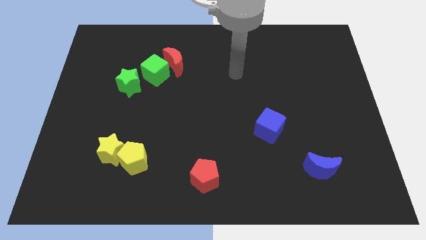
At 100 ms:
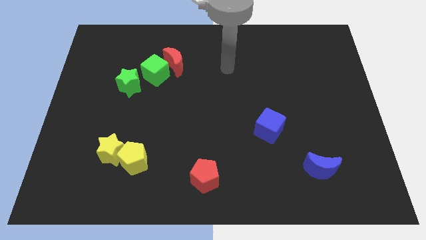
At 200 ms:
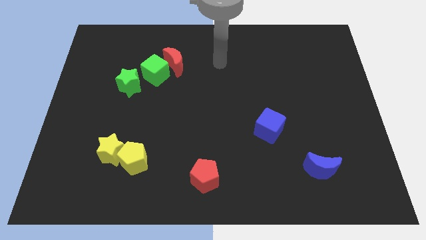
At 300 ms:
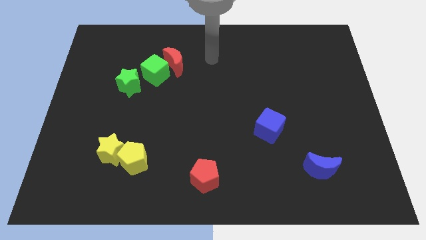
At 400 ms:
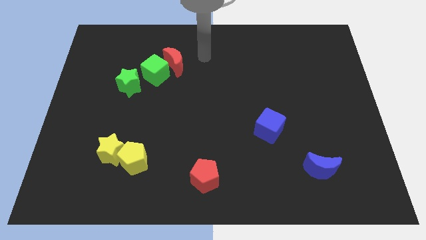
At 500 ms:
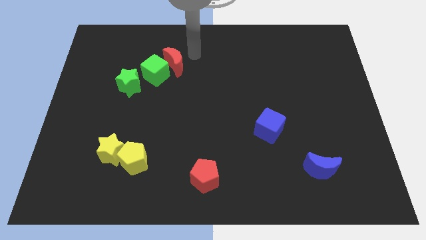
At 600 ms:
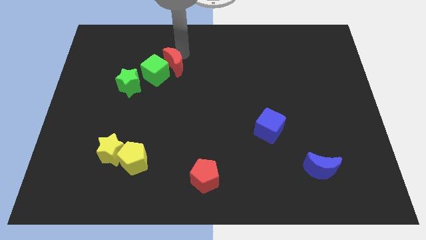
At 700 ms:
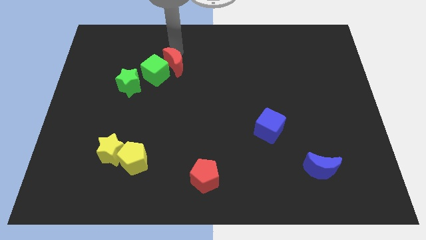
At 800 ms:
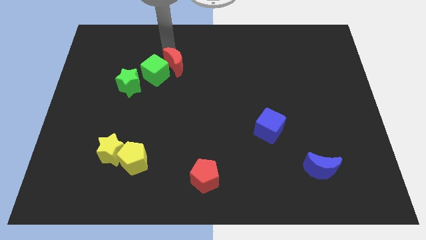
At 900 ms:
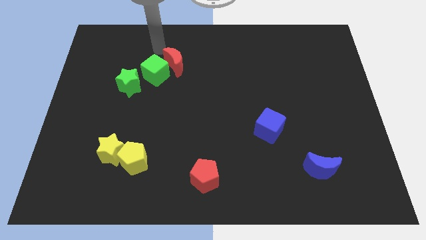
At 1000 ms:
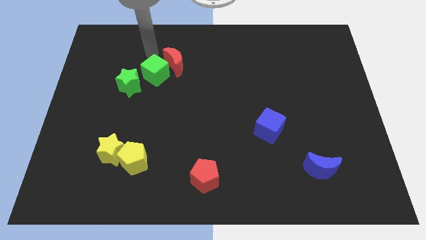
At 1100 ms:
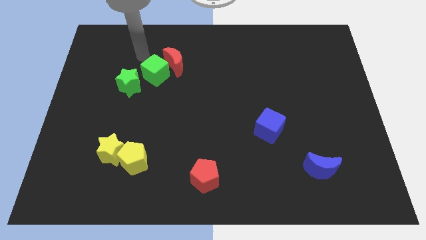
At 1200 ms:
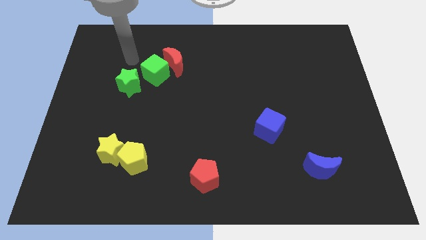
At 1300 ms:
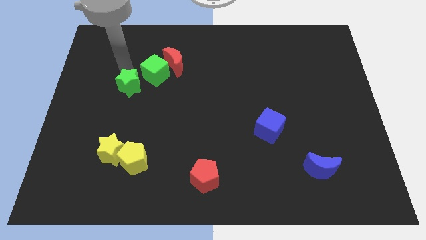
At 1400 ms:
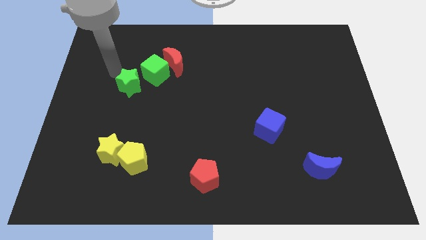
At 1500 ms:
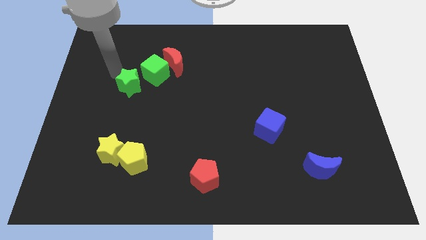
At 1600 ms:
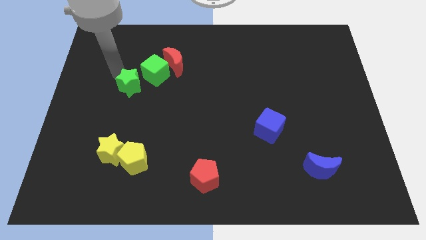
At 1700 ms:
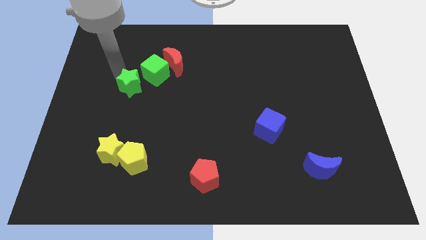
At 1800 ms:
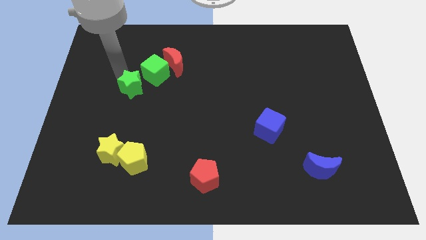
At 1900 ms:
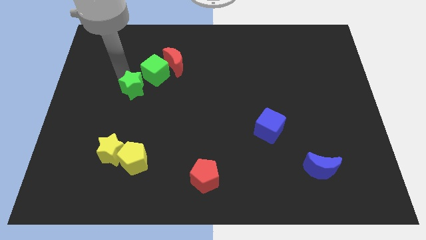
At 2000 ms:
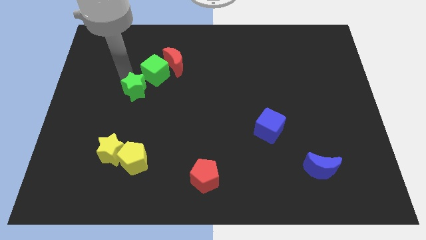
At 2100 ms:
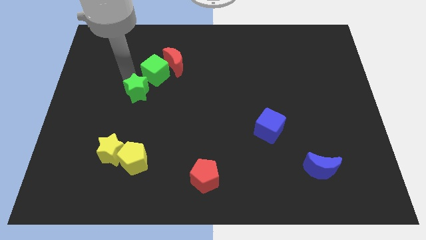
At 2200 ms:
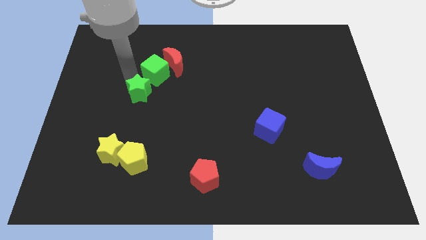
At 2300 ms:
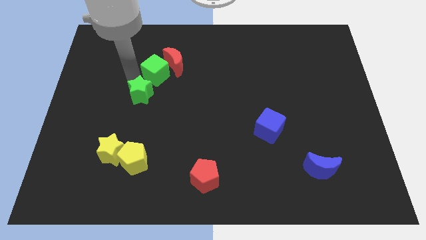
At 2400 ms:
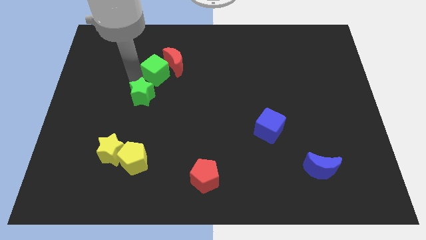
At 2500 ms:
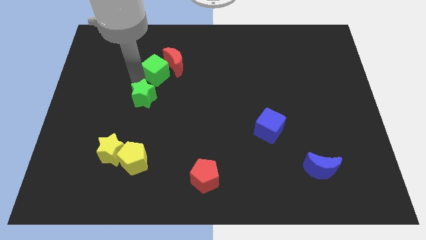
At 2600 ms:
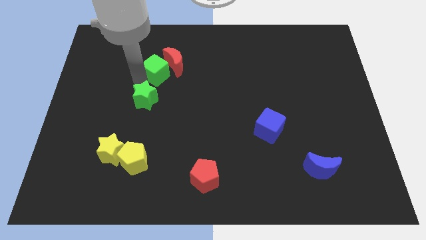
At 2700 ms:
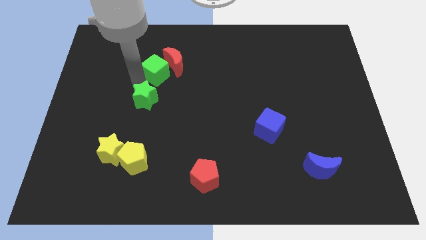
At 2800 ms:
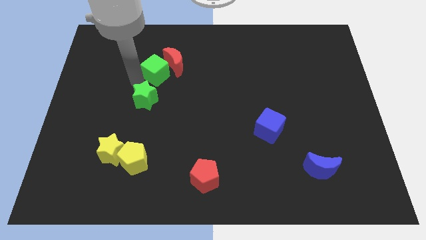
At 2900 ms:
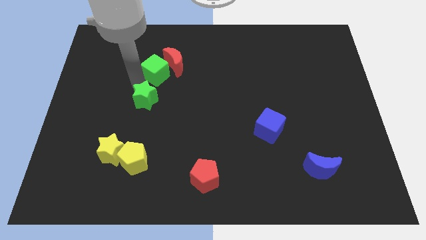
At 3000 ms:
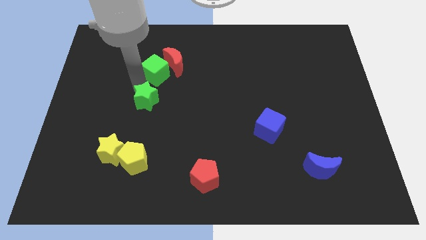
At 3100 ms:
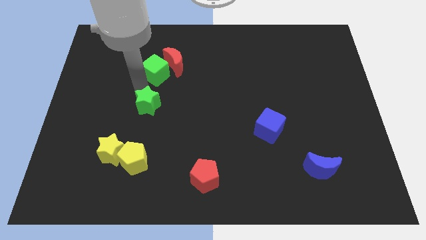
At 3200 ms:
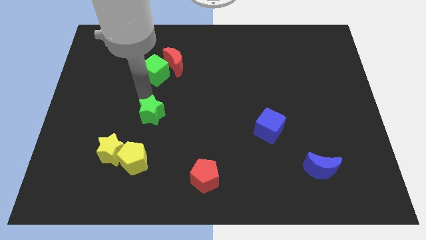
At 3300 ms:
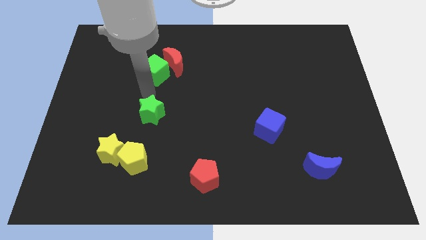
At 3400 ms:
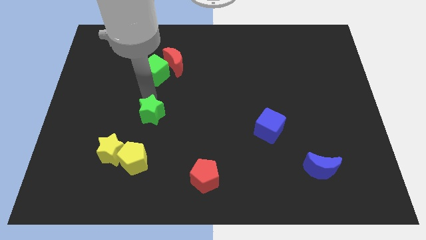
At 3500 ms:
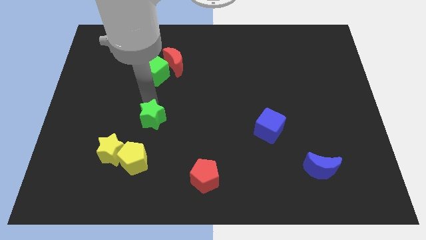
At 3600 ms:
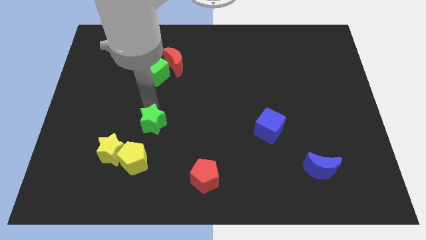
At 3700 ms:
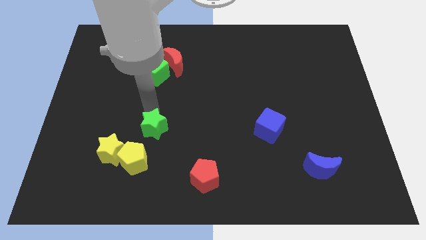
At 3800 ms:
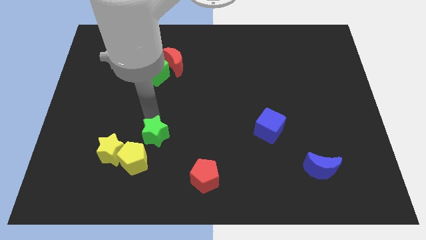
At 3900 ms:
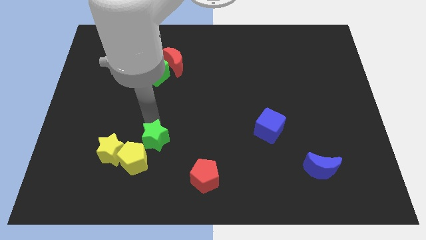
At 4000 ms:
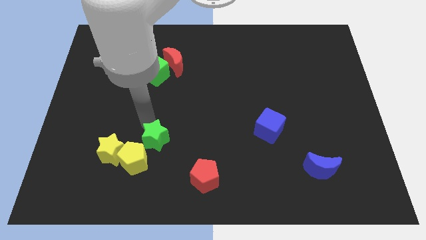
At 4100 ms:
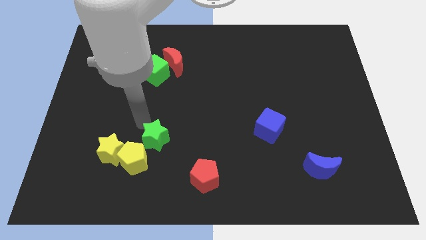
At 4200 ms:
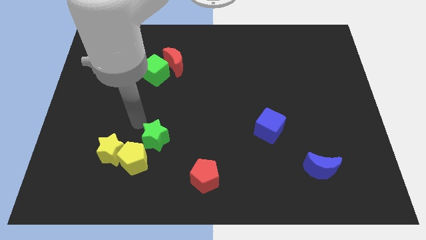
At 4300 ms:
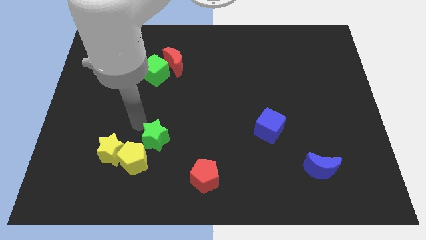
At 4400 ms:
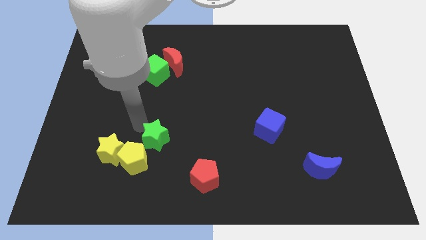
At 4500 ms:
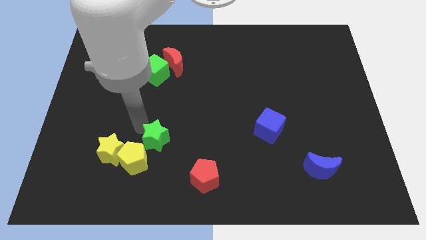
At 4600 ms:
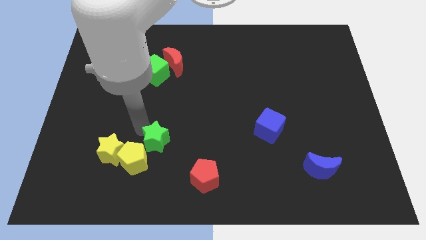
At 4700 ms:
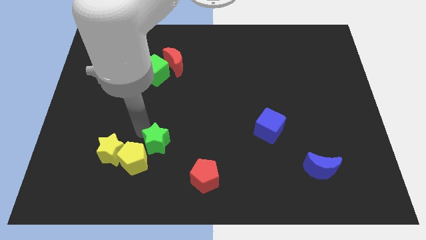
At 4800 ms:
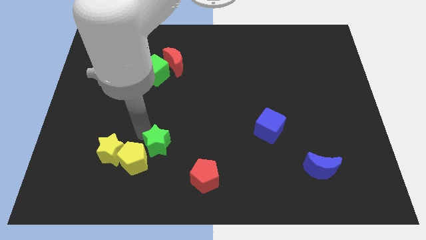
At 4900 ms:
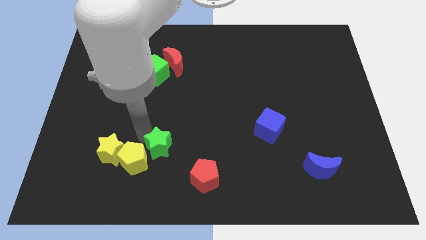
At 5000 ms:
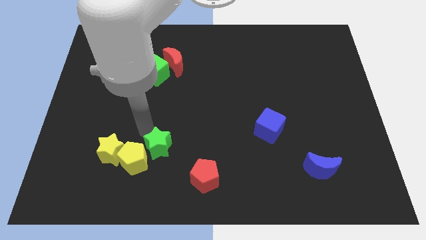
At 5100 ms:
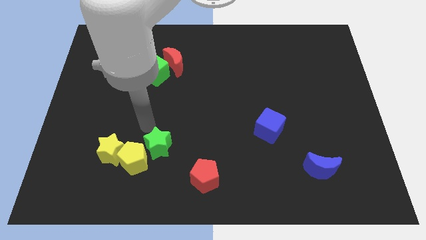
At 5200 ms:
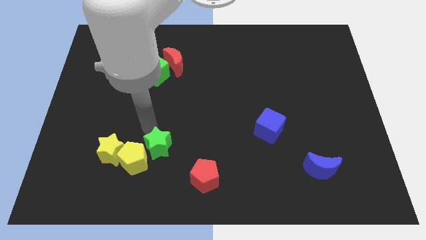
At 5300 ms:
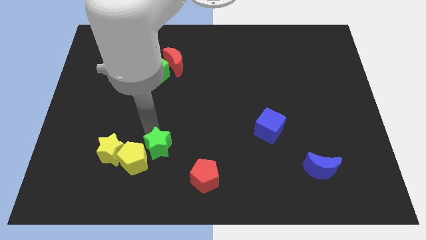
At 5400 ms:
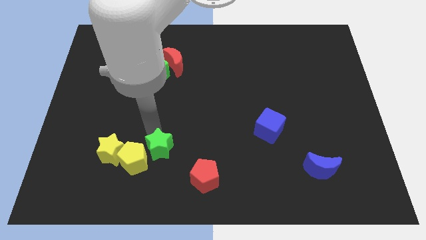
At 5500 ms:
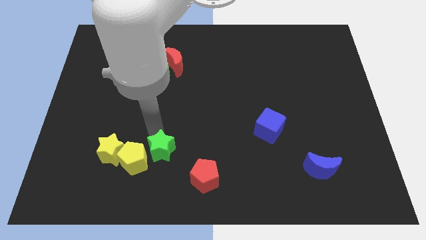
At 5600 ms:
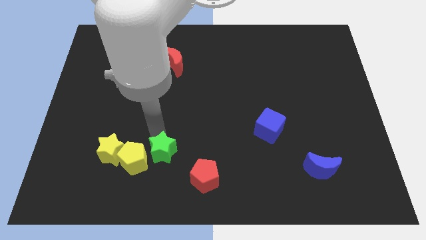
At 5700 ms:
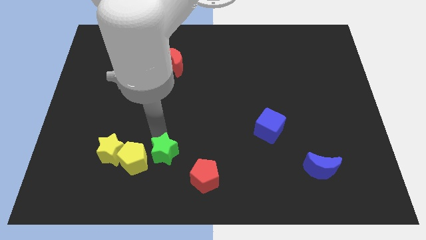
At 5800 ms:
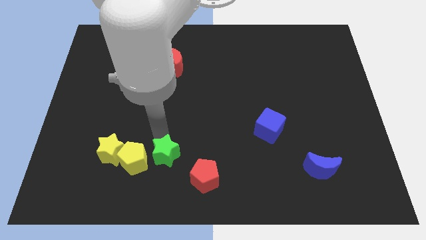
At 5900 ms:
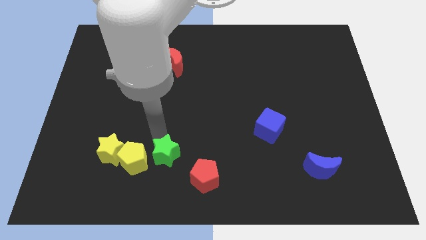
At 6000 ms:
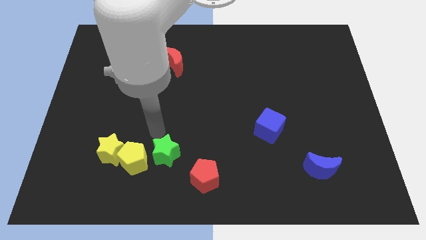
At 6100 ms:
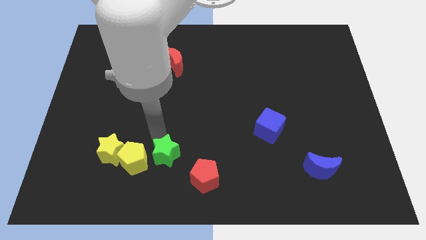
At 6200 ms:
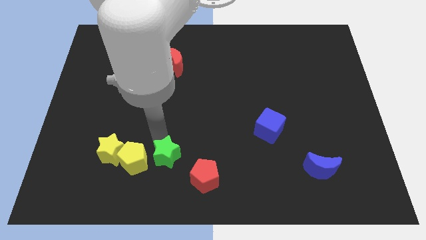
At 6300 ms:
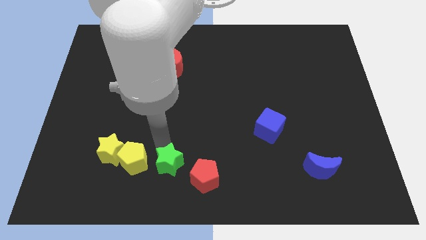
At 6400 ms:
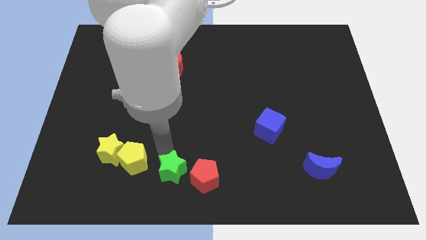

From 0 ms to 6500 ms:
slide the green star to the bottom
